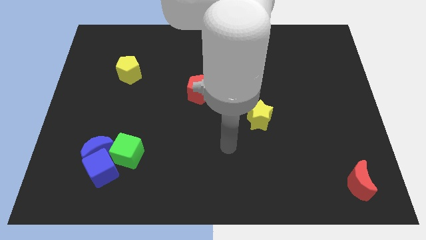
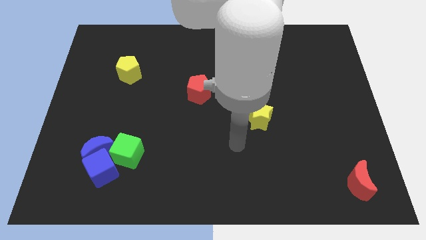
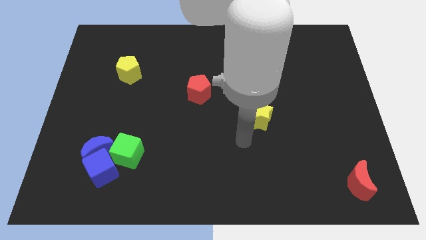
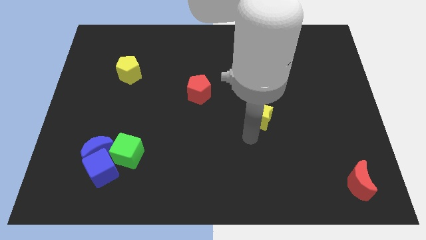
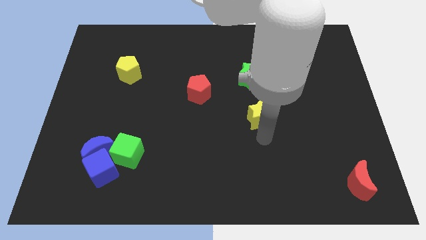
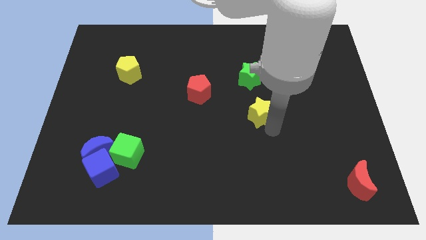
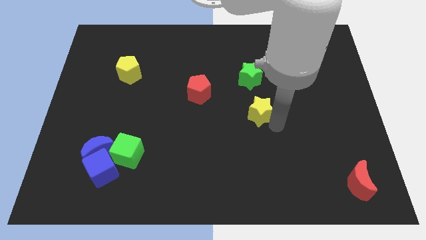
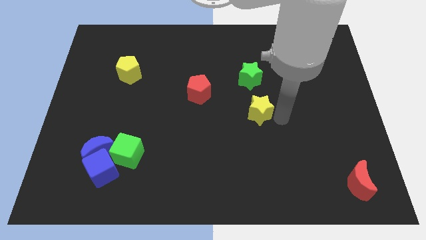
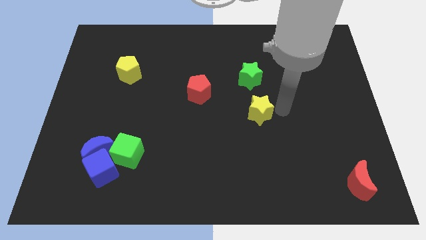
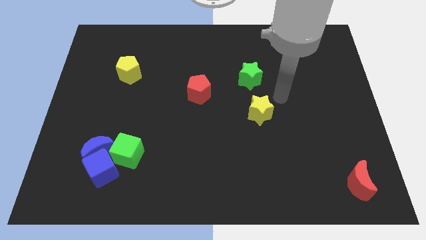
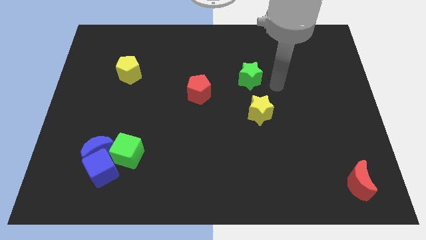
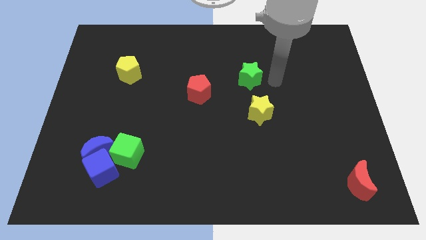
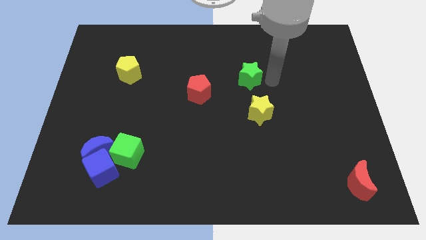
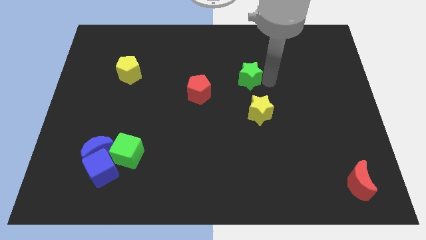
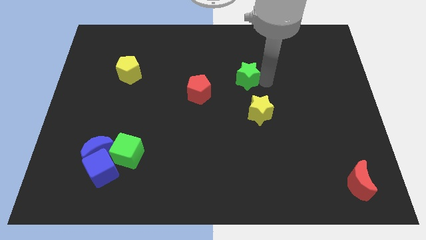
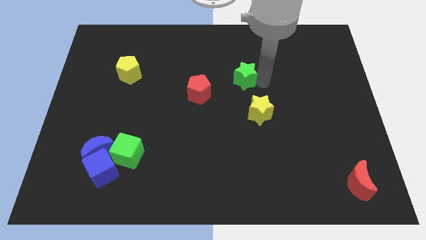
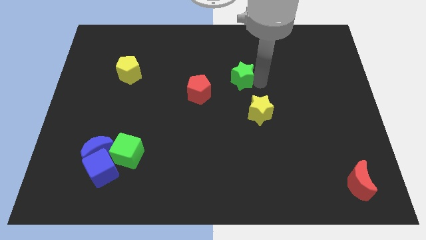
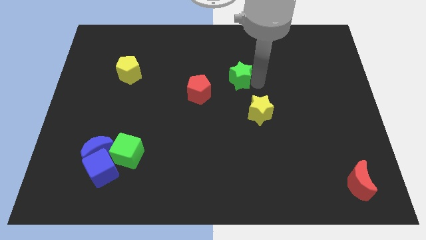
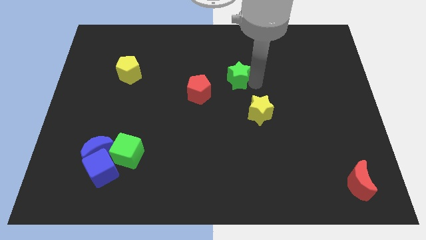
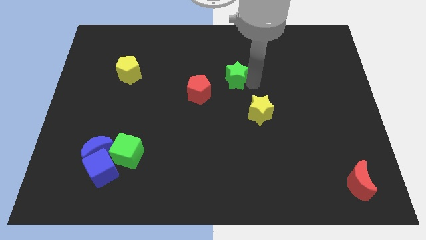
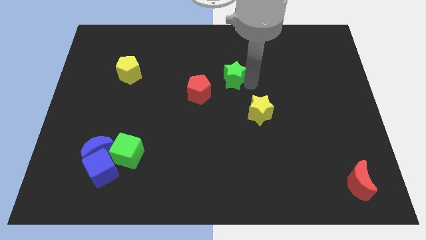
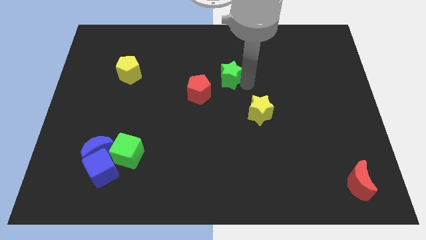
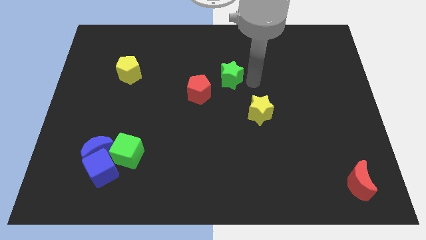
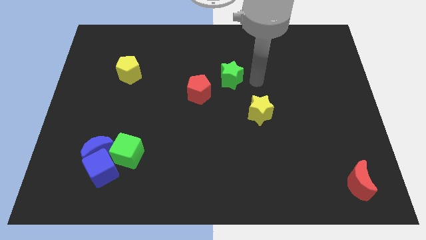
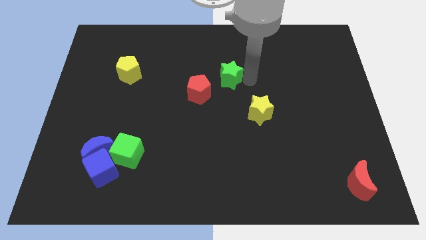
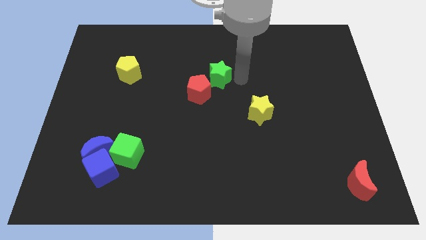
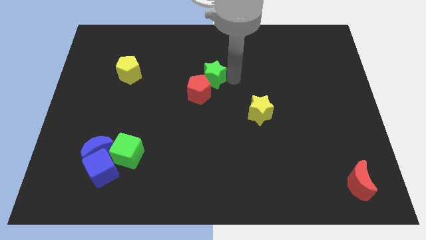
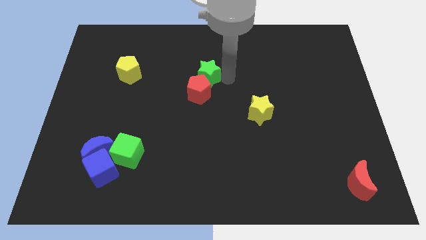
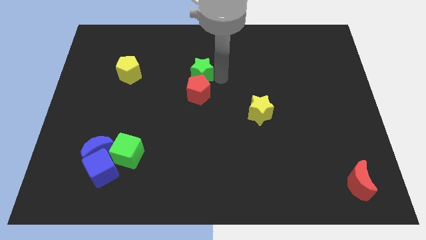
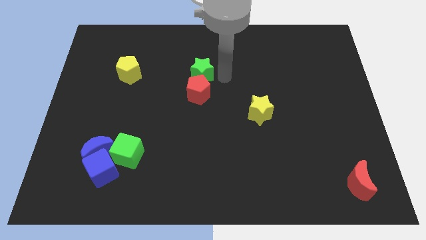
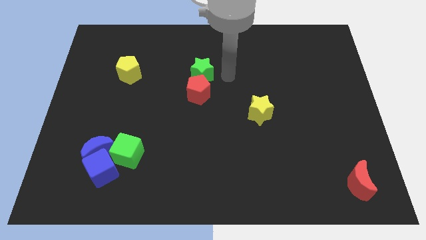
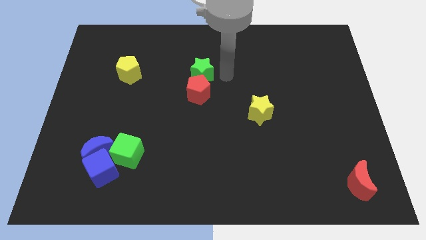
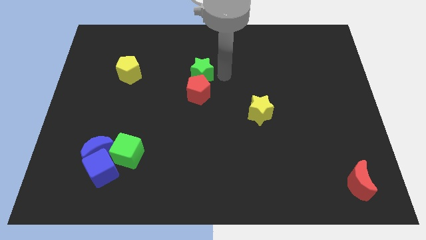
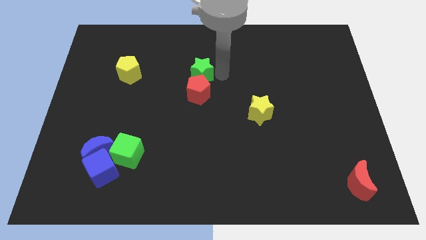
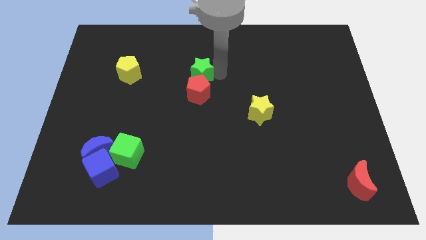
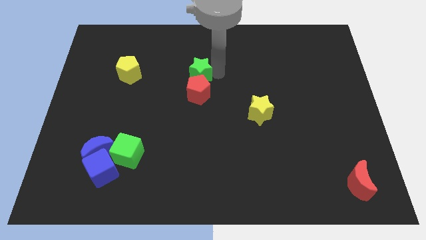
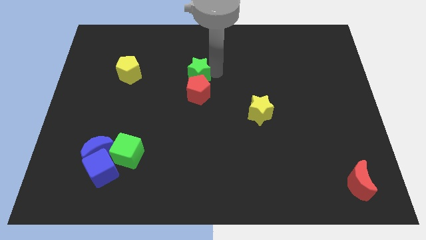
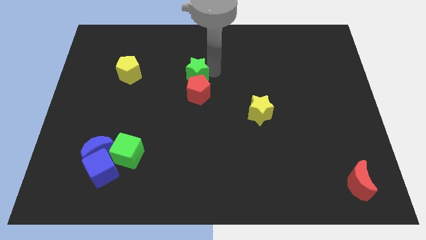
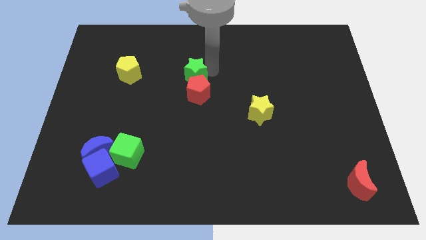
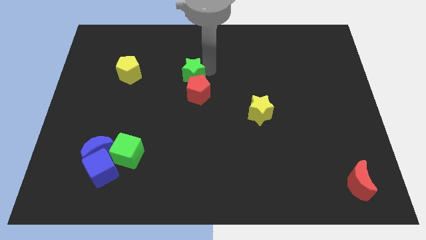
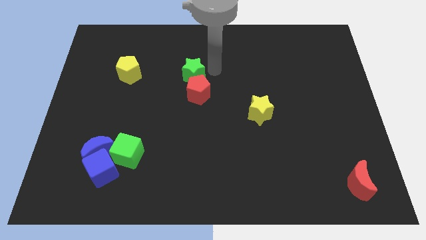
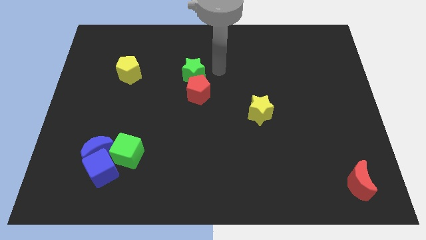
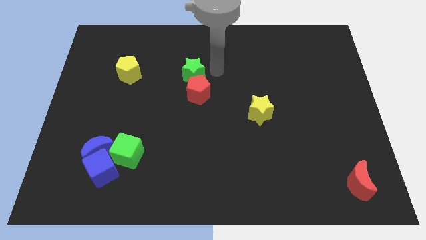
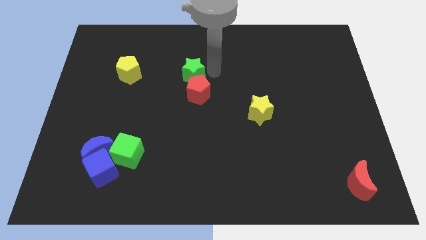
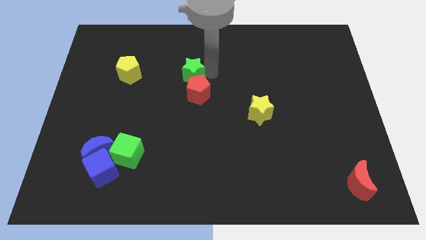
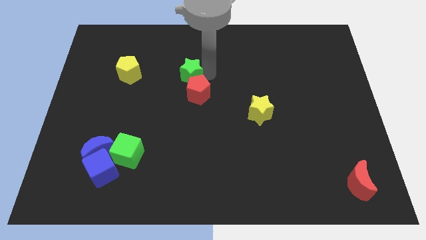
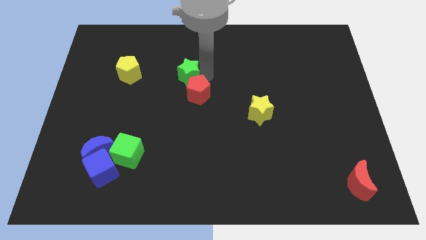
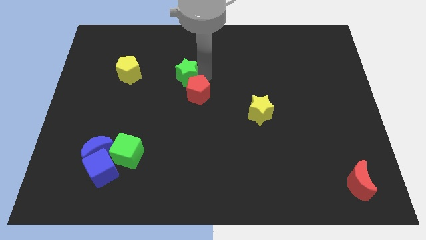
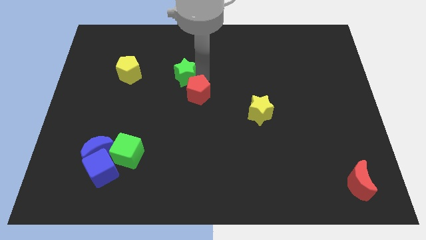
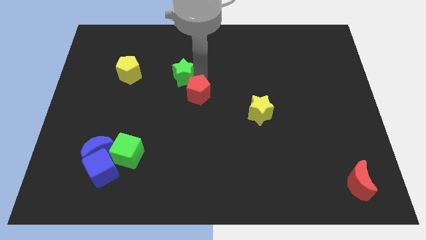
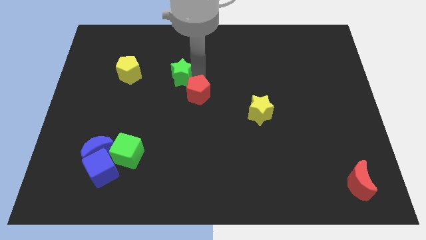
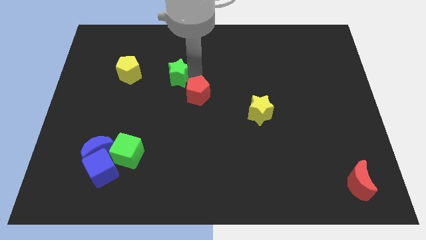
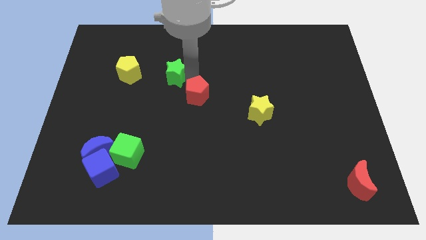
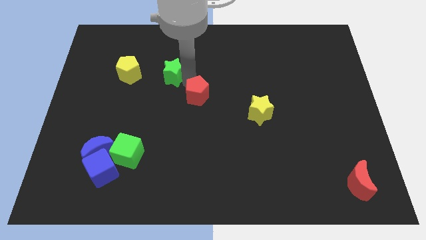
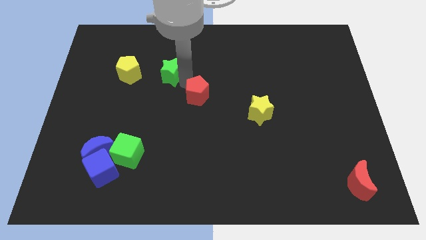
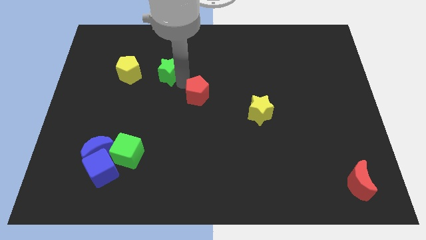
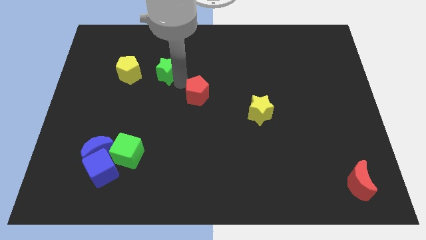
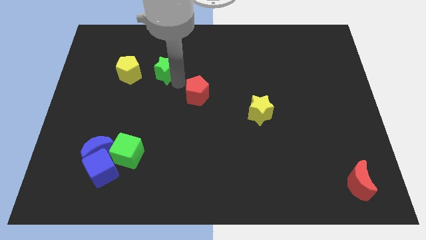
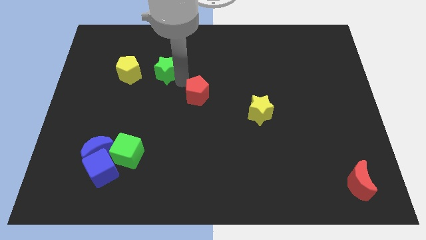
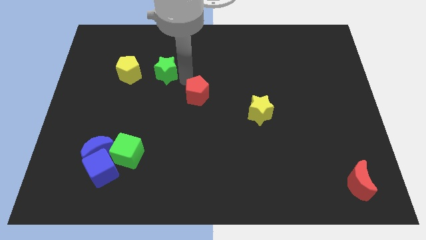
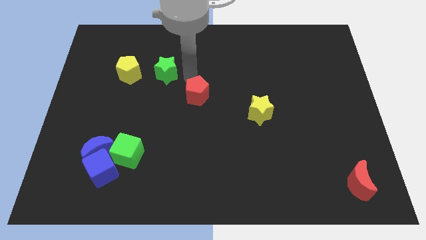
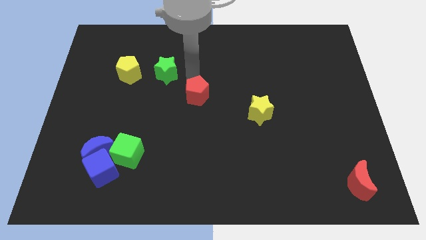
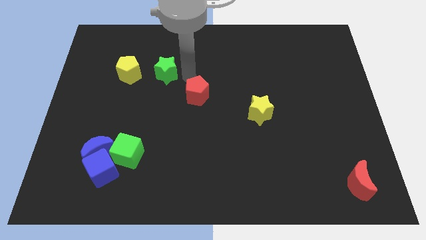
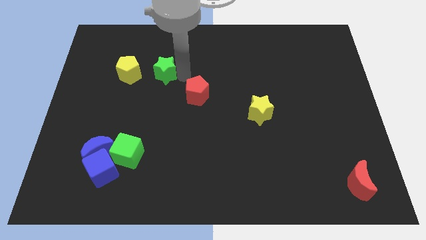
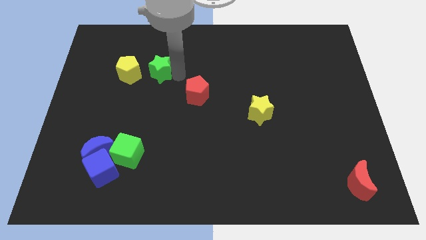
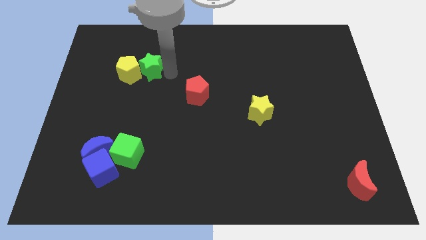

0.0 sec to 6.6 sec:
put the green star next to the yellow pentagon

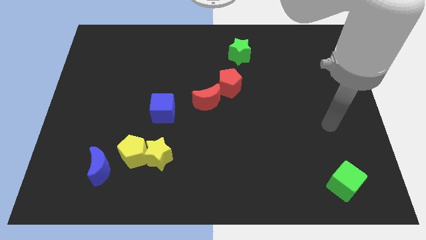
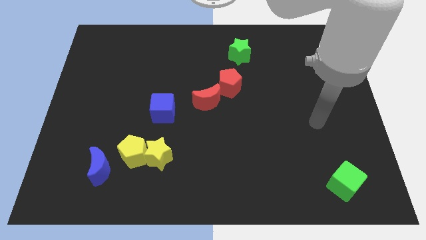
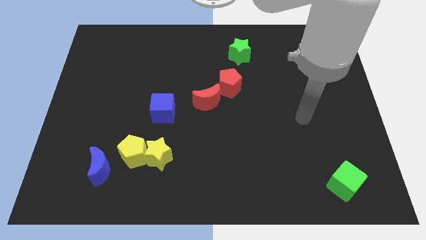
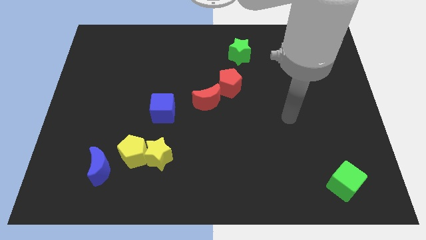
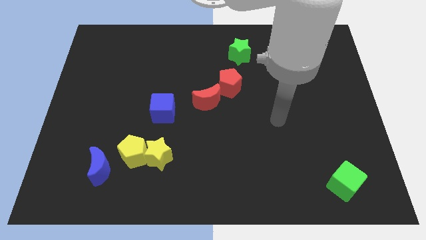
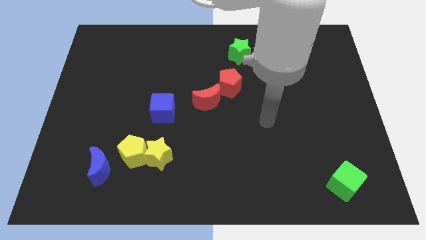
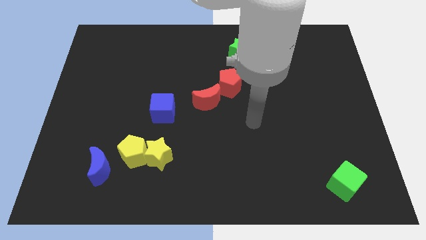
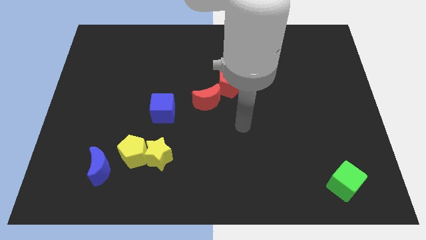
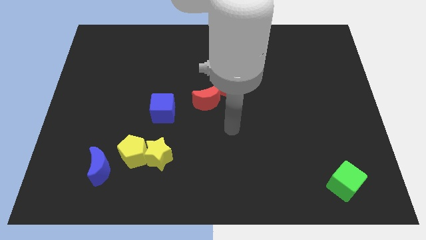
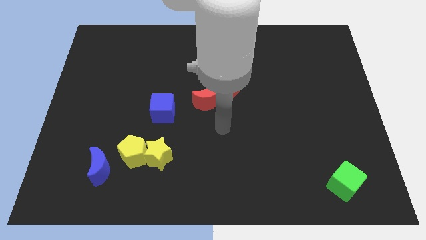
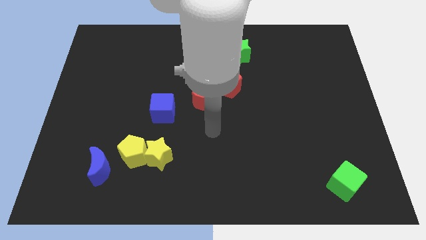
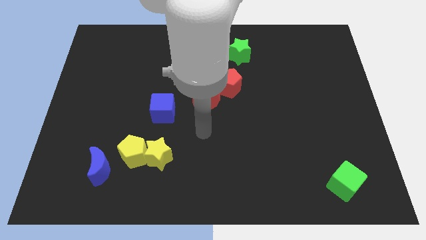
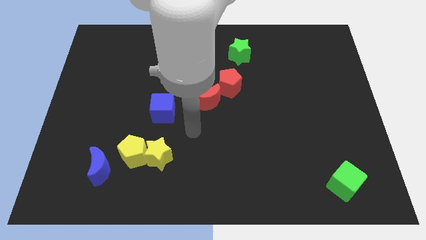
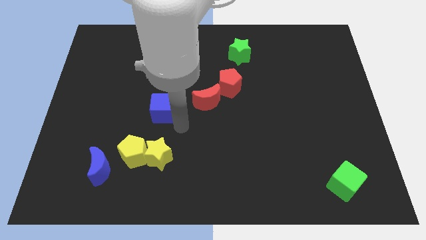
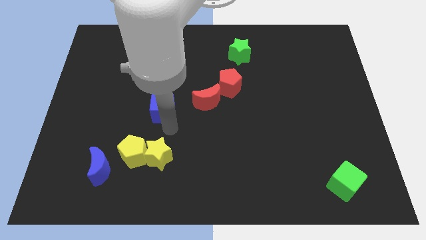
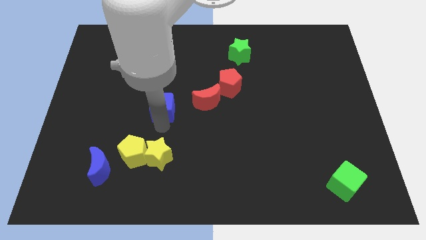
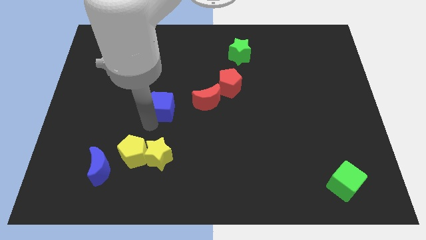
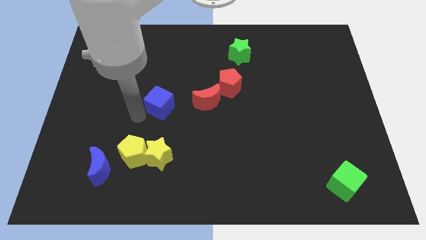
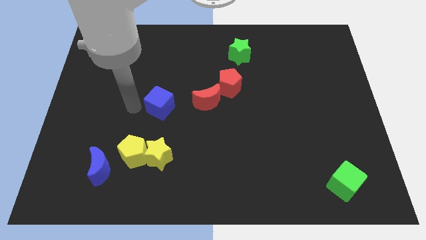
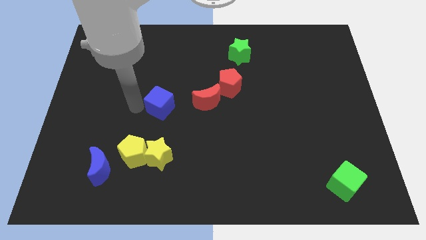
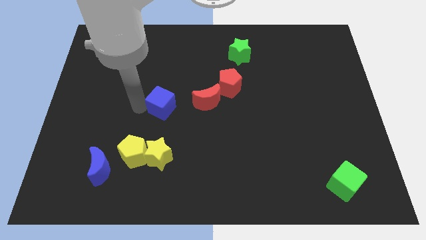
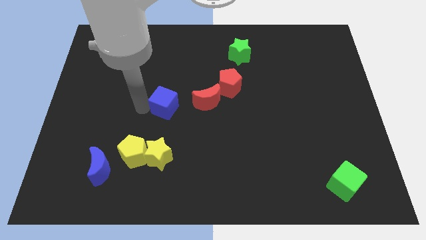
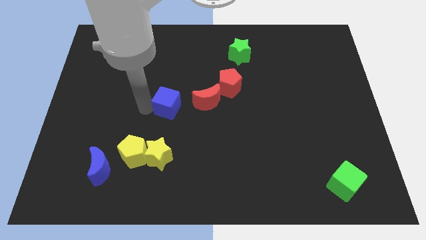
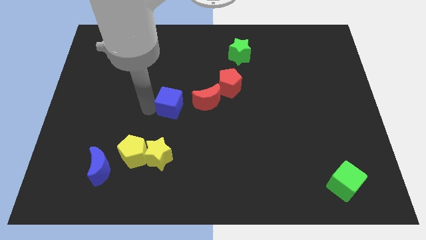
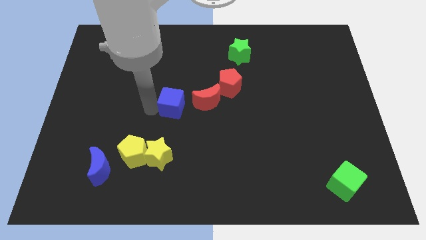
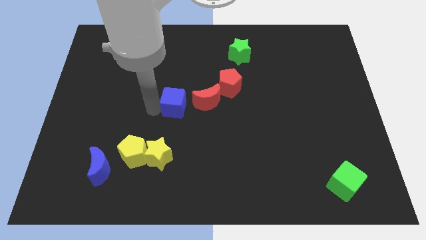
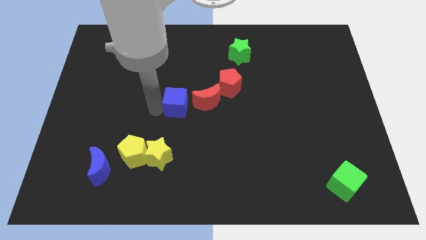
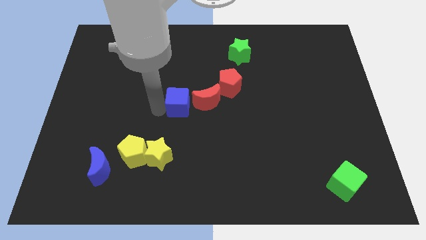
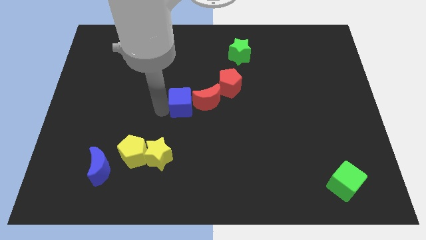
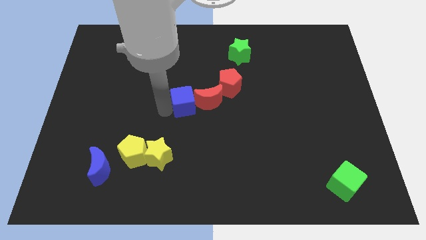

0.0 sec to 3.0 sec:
slide the blue cube towards the red moon
